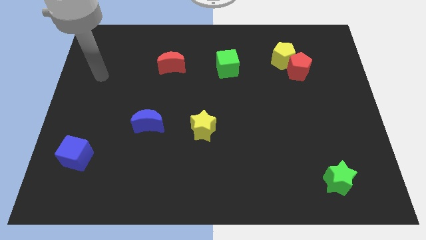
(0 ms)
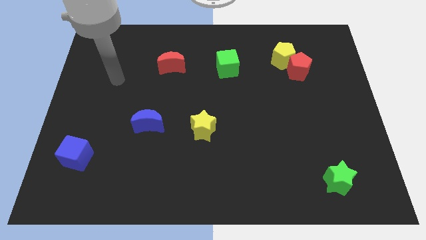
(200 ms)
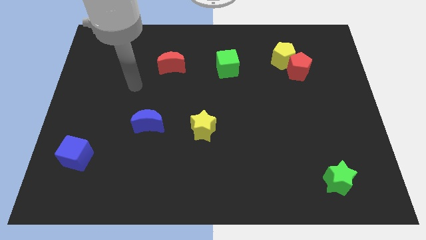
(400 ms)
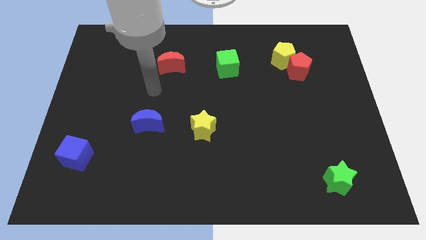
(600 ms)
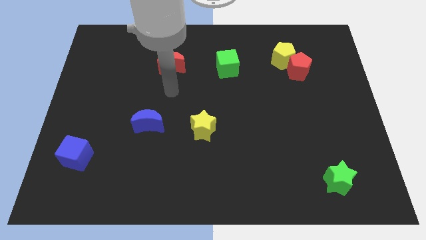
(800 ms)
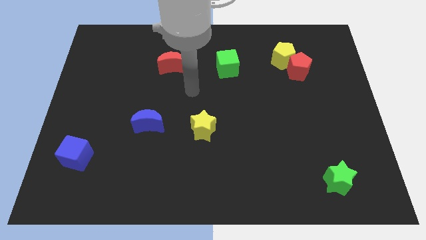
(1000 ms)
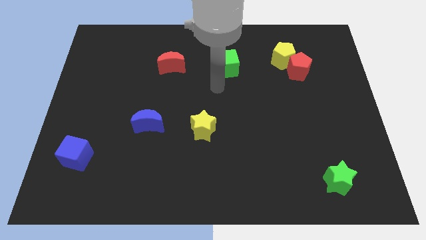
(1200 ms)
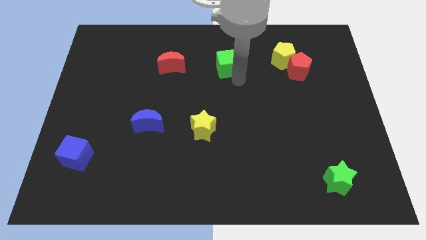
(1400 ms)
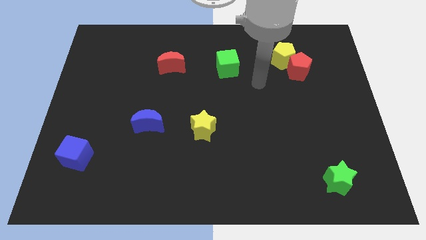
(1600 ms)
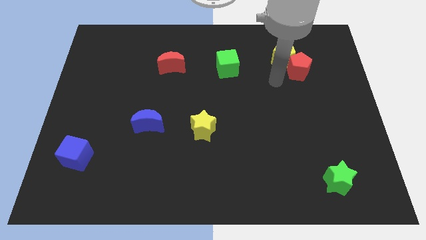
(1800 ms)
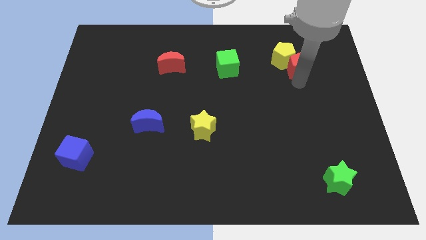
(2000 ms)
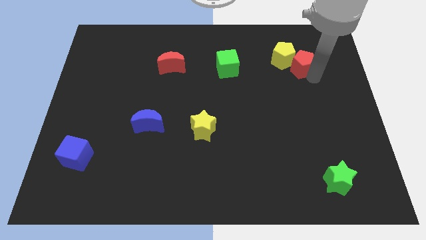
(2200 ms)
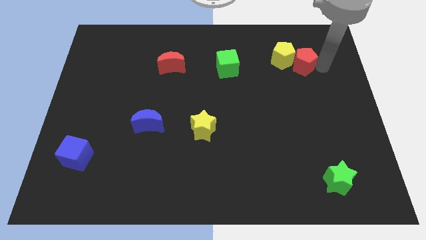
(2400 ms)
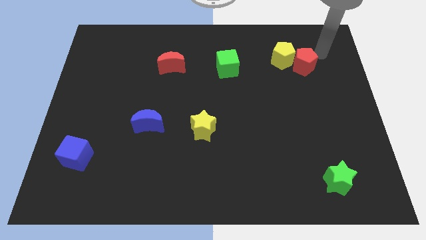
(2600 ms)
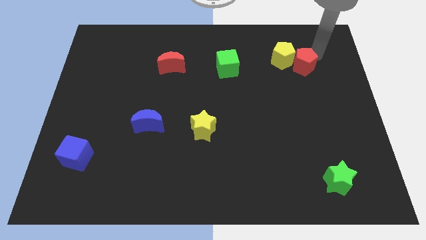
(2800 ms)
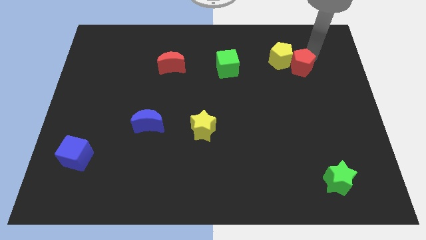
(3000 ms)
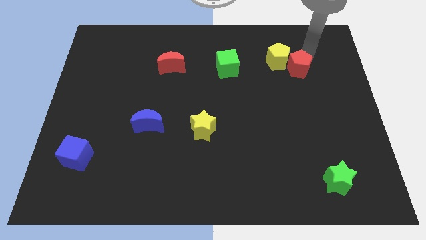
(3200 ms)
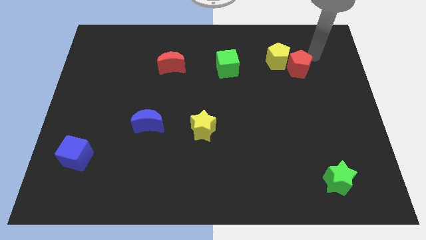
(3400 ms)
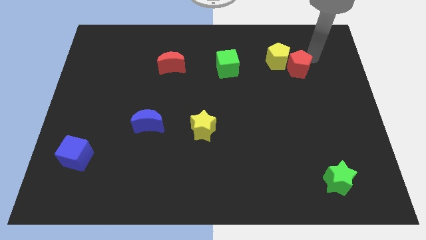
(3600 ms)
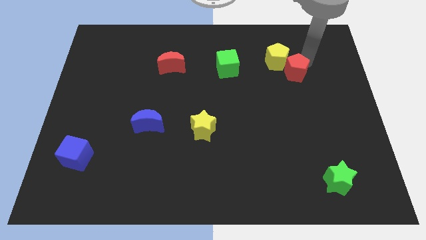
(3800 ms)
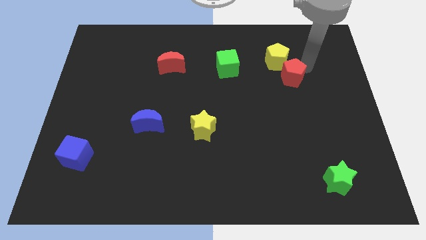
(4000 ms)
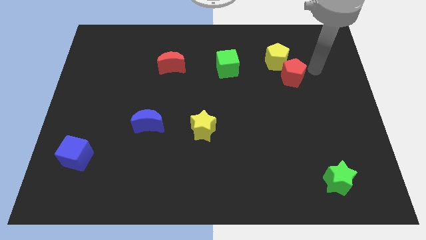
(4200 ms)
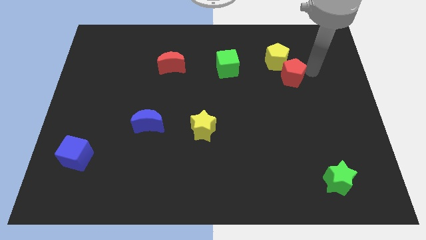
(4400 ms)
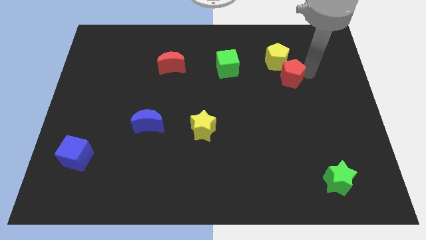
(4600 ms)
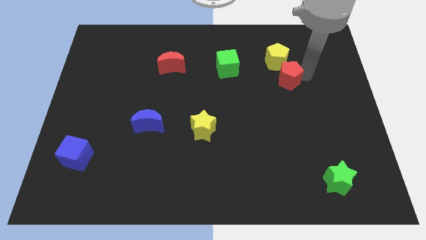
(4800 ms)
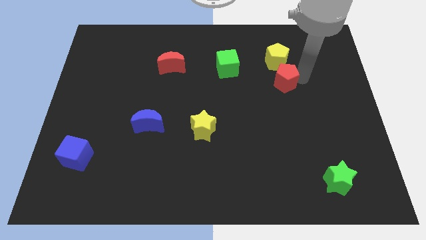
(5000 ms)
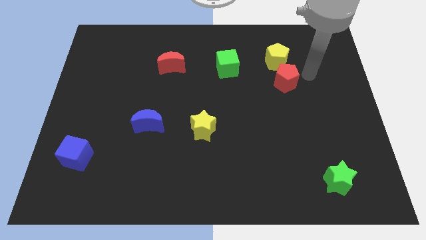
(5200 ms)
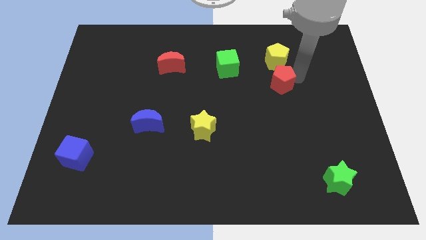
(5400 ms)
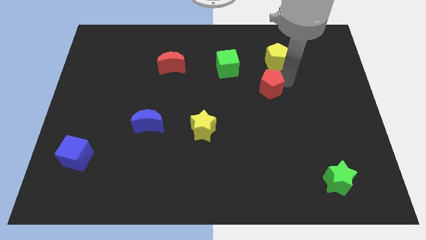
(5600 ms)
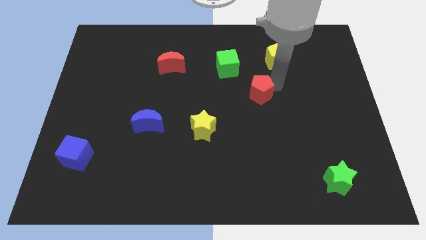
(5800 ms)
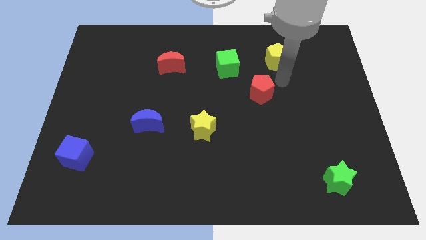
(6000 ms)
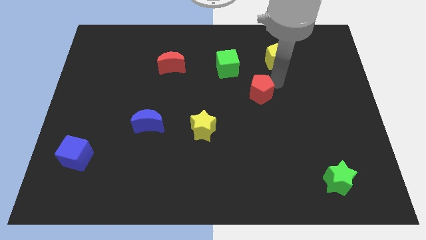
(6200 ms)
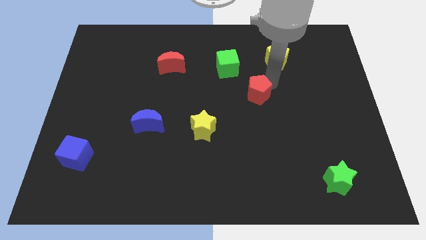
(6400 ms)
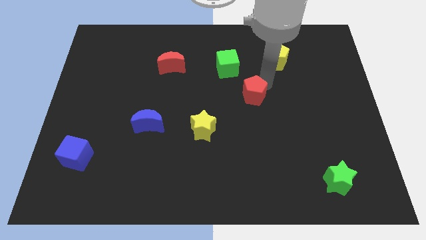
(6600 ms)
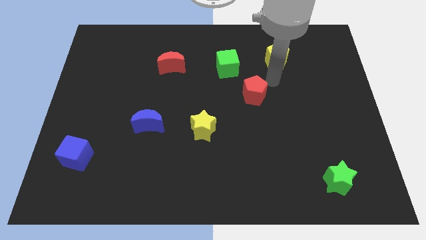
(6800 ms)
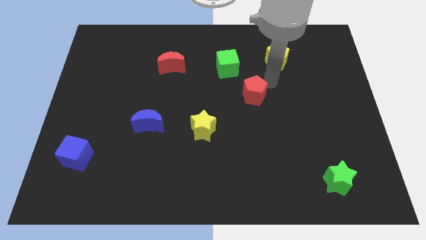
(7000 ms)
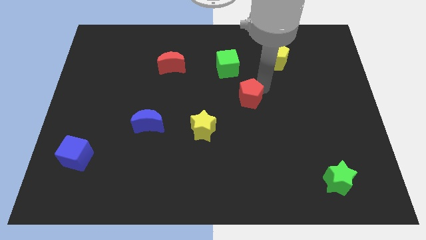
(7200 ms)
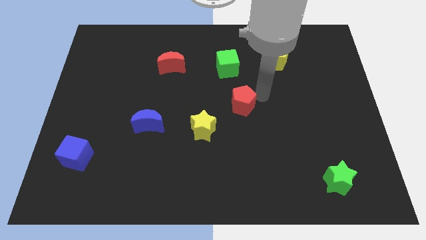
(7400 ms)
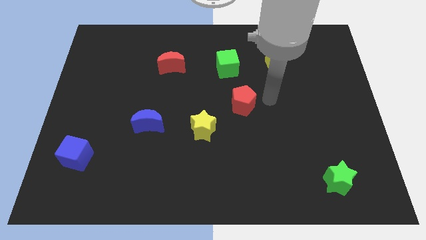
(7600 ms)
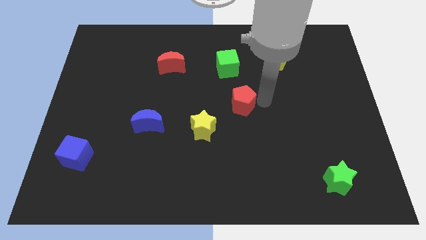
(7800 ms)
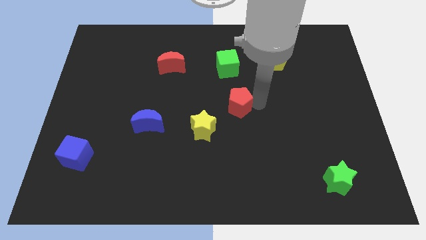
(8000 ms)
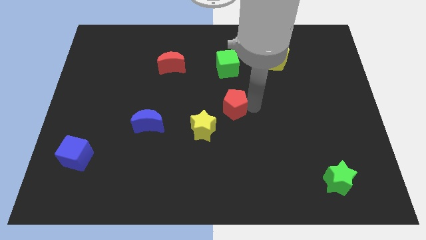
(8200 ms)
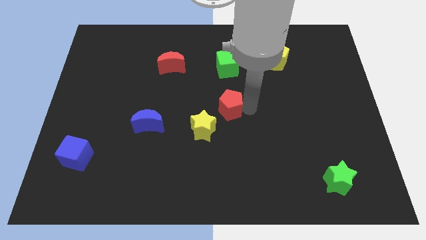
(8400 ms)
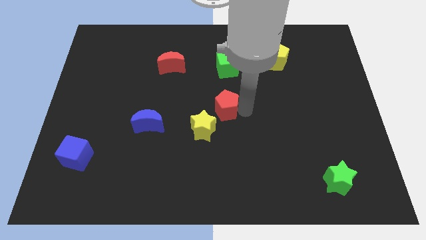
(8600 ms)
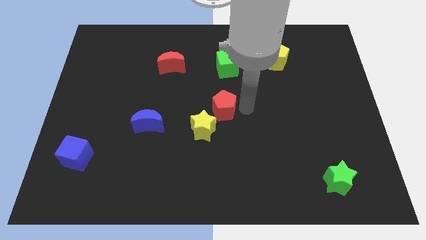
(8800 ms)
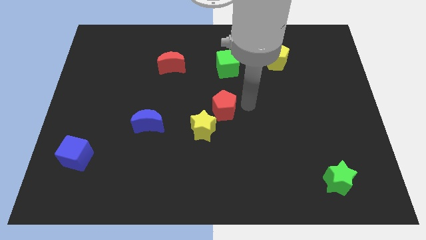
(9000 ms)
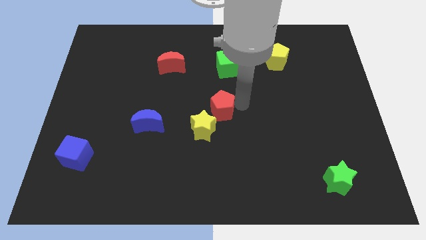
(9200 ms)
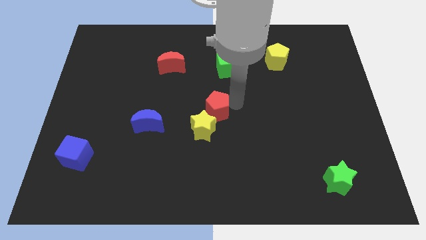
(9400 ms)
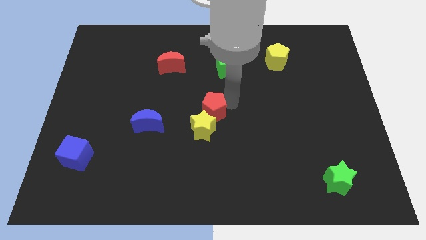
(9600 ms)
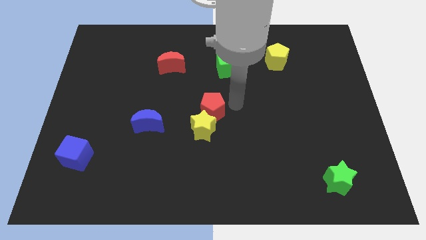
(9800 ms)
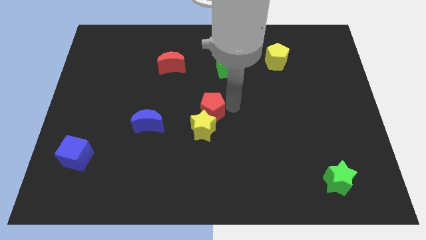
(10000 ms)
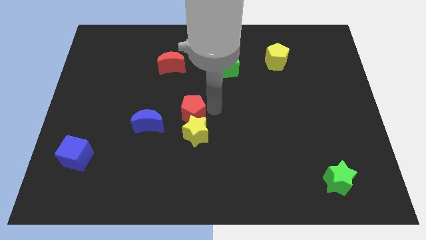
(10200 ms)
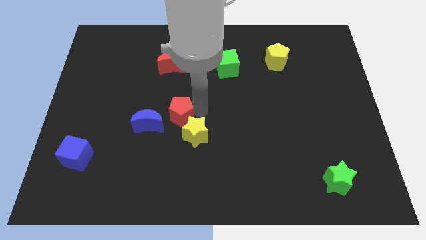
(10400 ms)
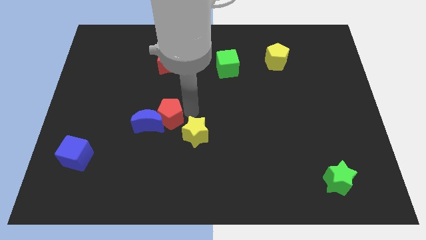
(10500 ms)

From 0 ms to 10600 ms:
move the red pentagon to the blue moon

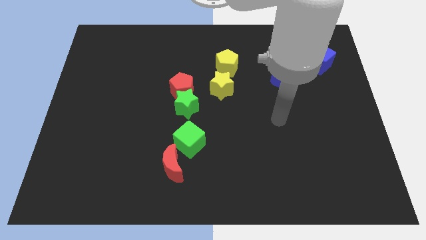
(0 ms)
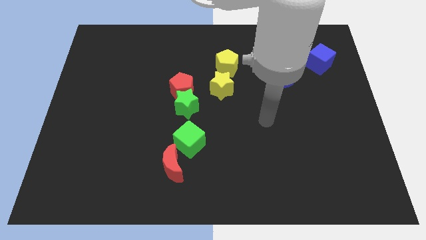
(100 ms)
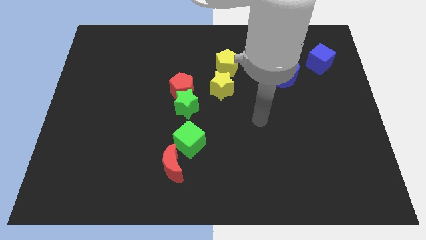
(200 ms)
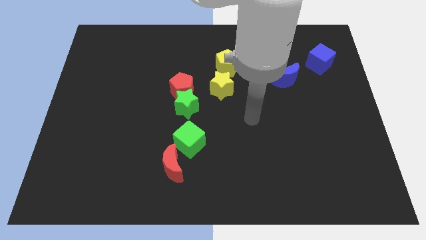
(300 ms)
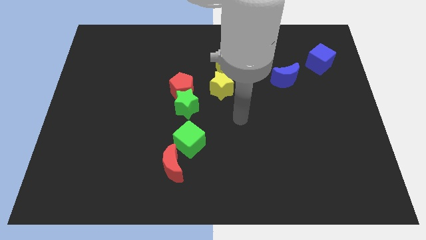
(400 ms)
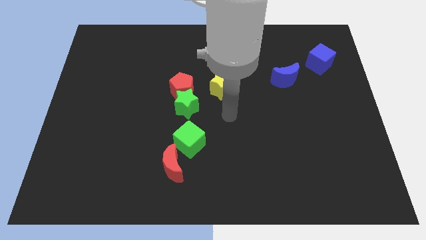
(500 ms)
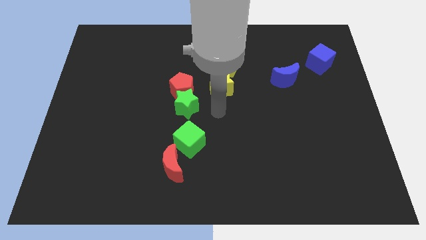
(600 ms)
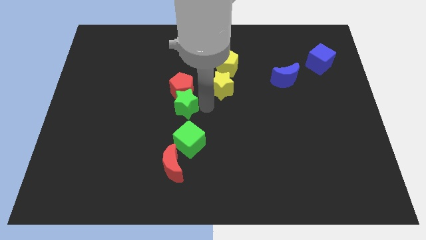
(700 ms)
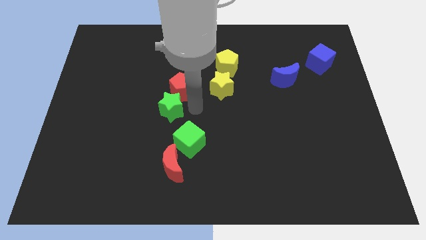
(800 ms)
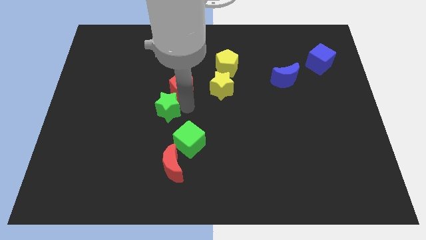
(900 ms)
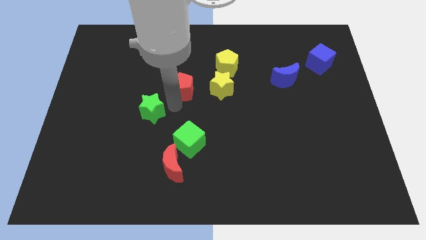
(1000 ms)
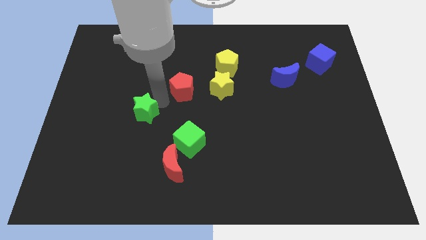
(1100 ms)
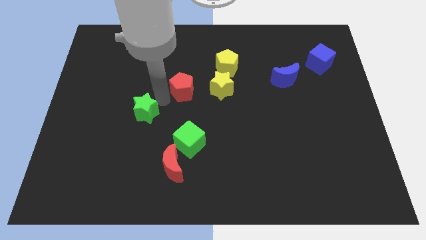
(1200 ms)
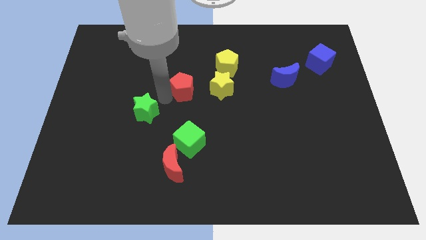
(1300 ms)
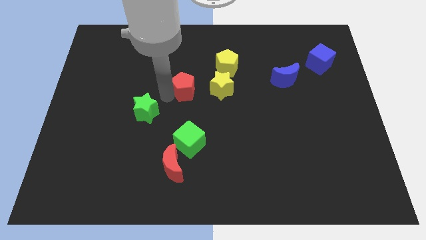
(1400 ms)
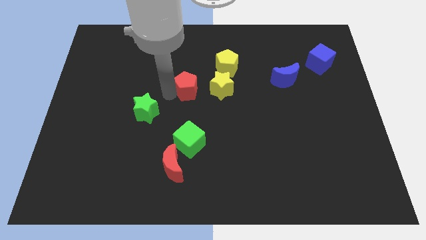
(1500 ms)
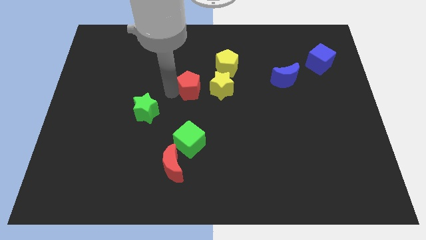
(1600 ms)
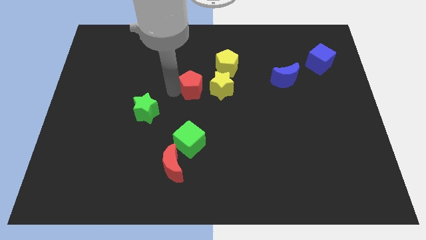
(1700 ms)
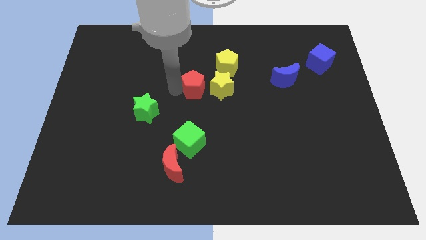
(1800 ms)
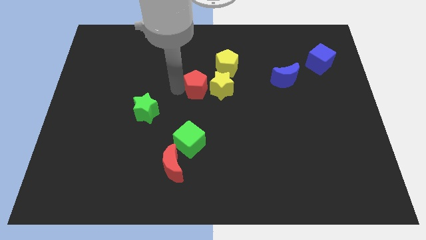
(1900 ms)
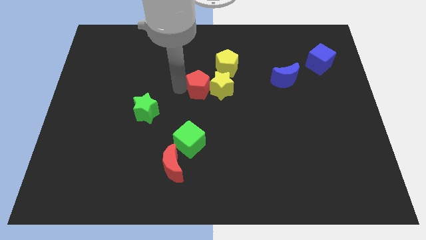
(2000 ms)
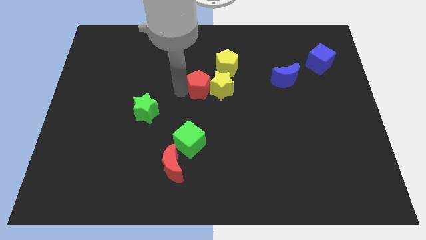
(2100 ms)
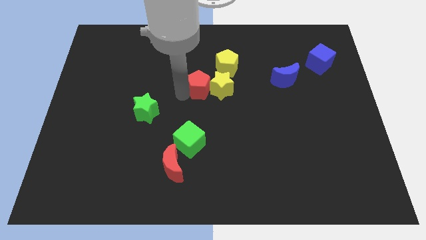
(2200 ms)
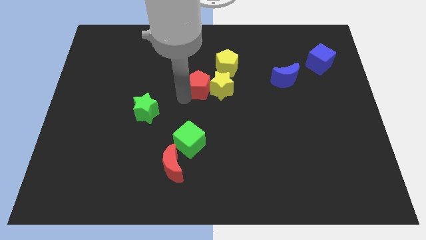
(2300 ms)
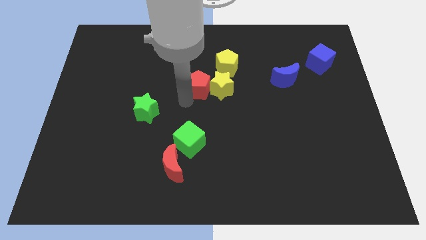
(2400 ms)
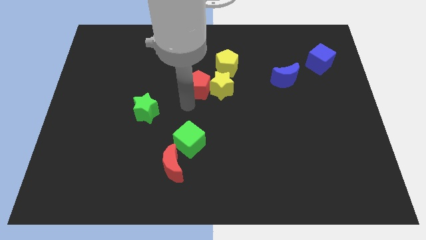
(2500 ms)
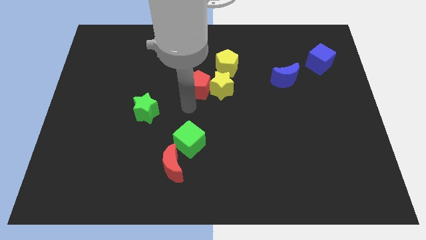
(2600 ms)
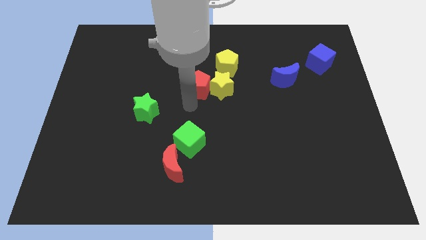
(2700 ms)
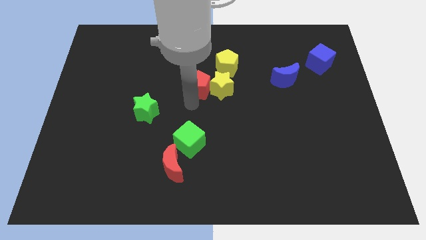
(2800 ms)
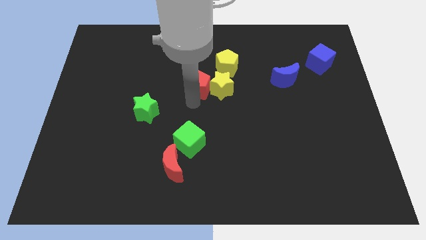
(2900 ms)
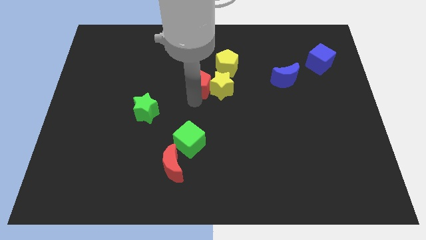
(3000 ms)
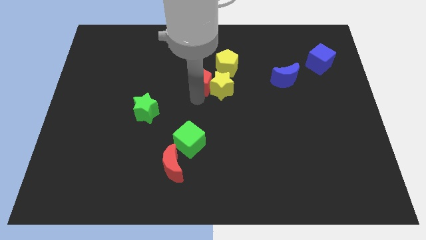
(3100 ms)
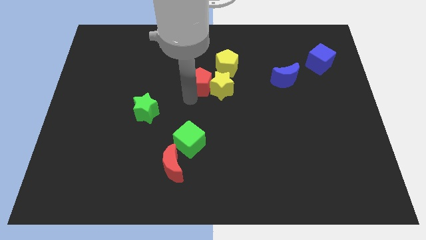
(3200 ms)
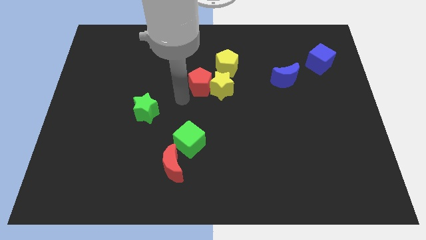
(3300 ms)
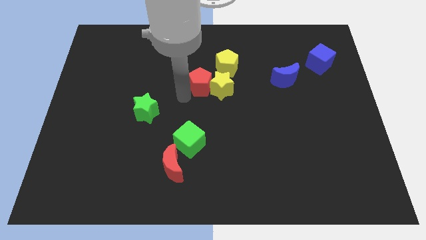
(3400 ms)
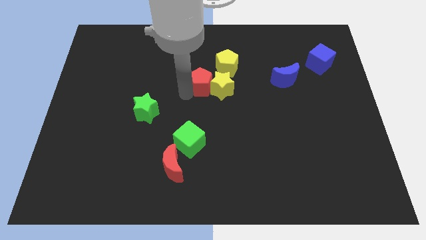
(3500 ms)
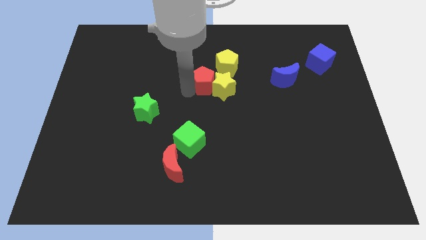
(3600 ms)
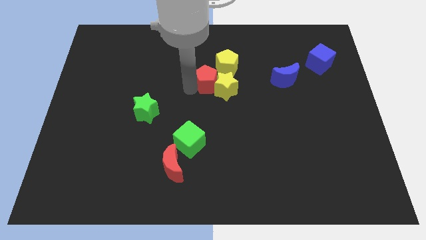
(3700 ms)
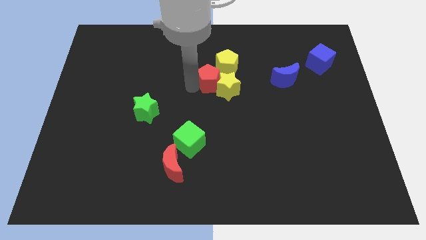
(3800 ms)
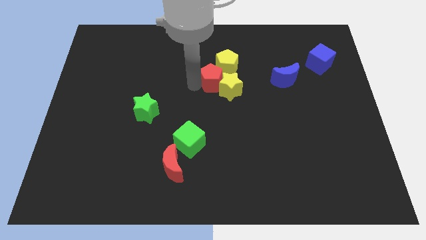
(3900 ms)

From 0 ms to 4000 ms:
put the red pentagon close to the yellow pentagon
